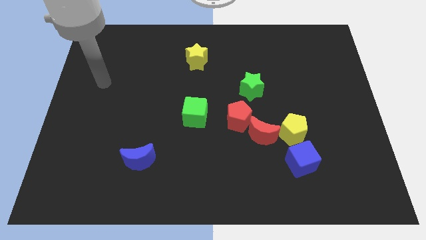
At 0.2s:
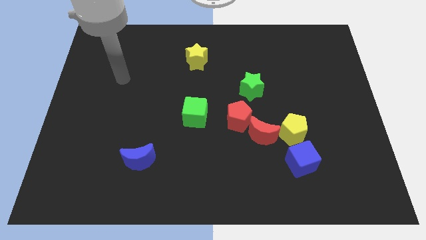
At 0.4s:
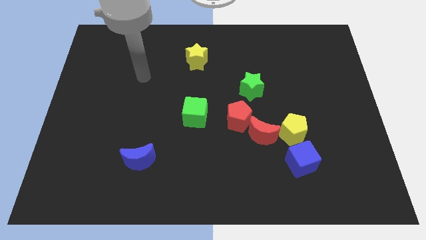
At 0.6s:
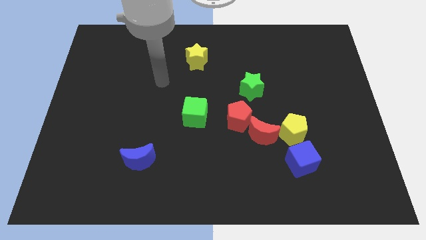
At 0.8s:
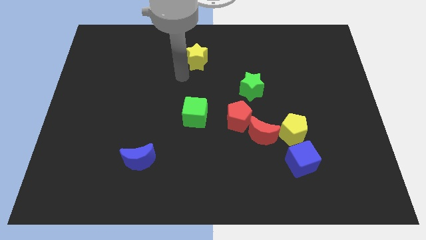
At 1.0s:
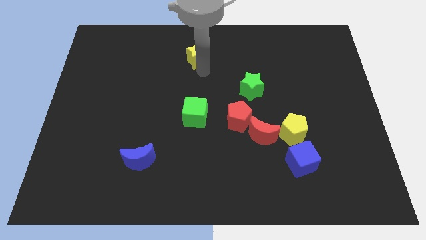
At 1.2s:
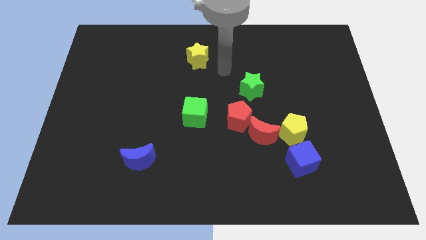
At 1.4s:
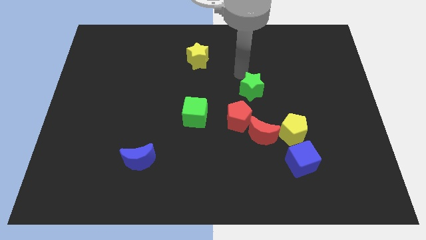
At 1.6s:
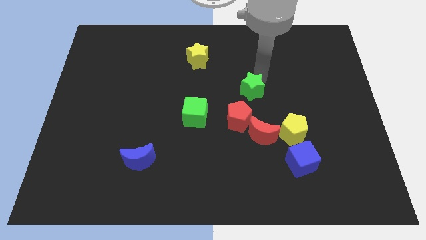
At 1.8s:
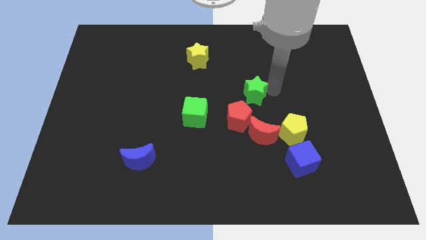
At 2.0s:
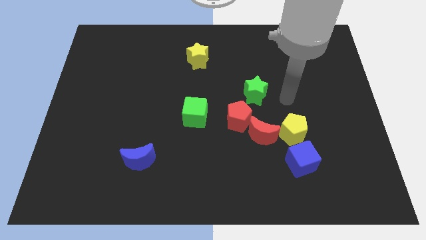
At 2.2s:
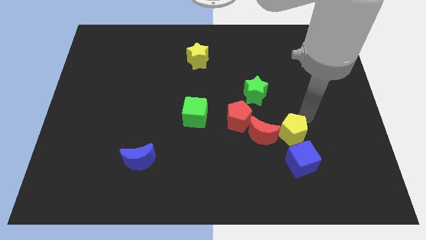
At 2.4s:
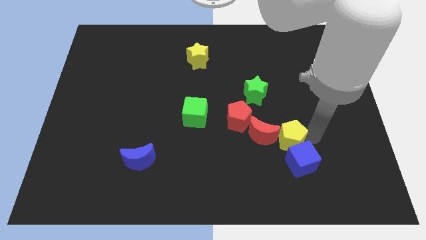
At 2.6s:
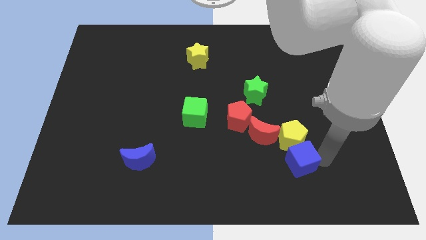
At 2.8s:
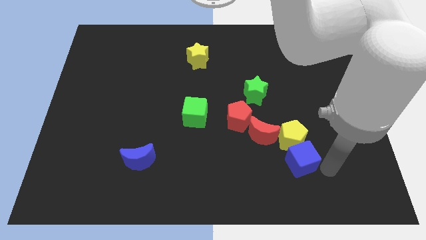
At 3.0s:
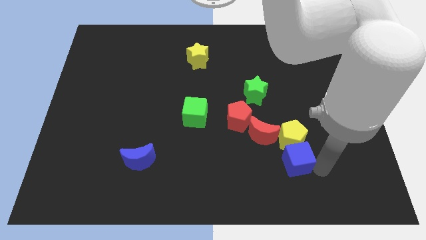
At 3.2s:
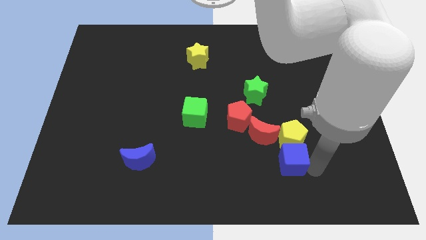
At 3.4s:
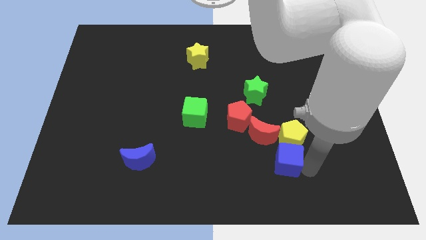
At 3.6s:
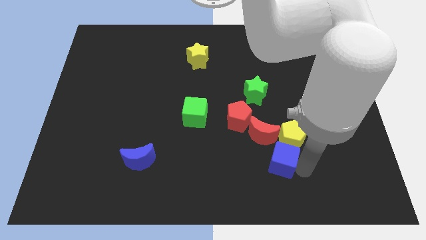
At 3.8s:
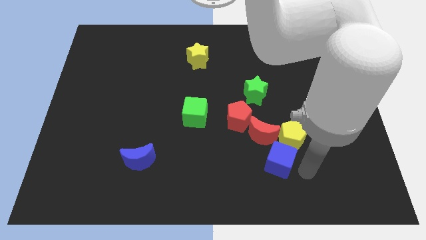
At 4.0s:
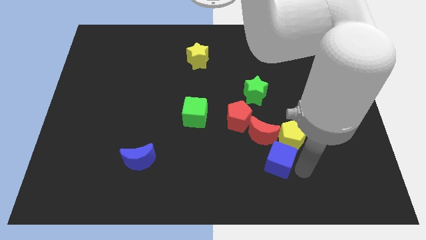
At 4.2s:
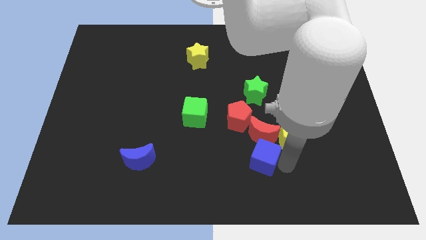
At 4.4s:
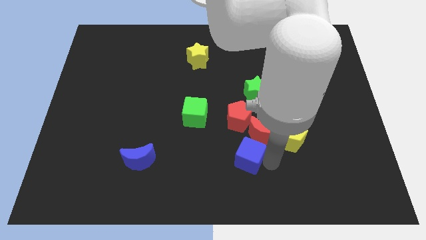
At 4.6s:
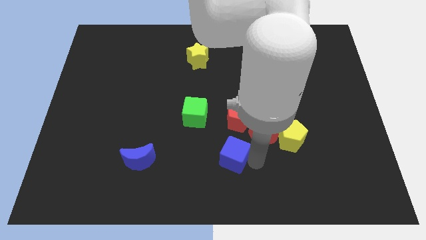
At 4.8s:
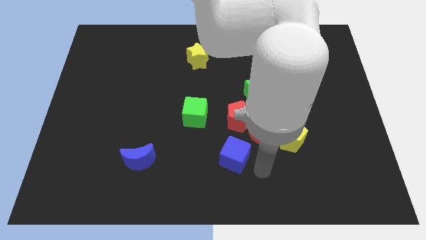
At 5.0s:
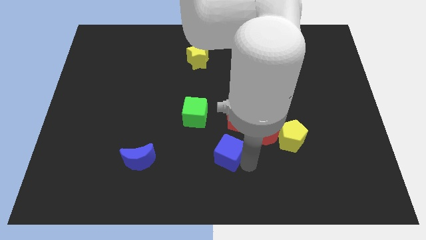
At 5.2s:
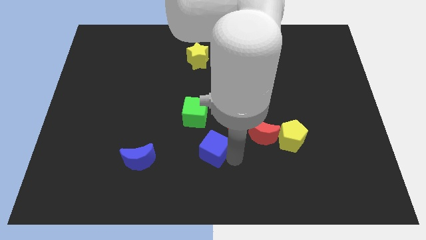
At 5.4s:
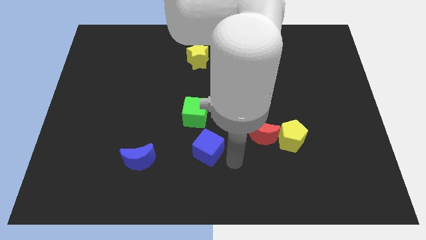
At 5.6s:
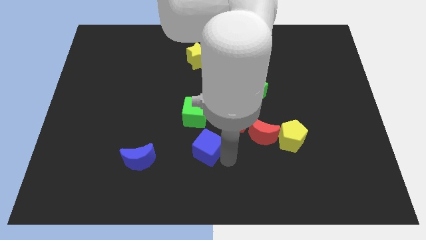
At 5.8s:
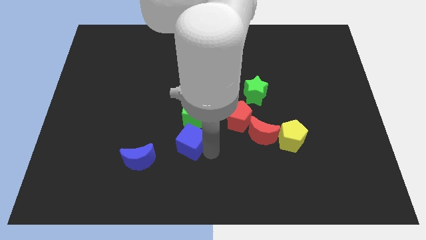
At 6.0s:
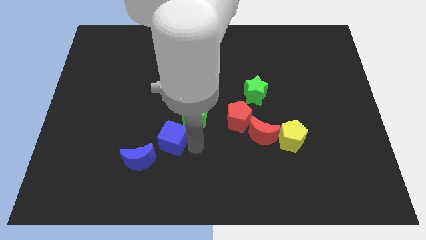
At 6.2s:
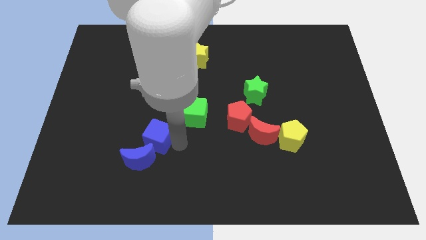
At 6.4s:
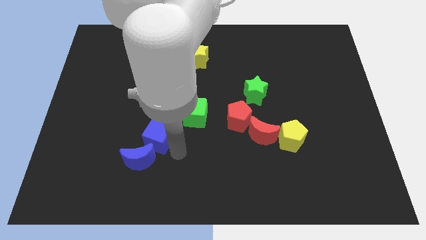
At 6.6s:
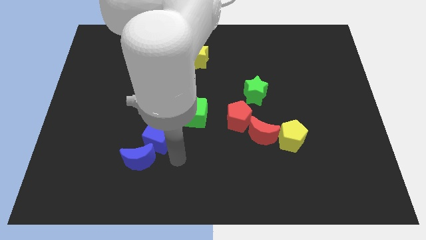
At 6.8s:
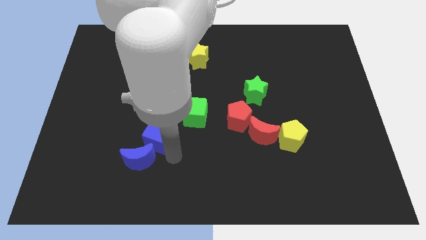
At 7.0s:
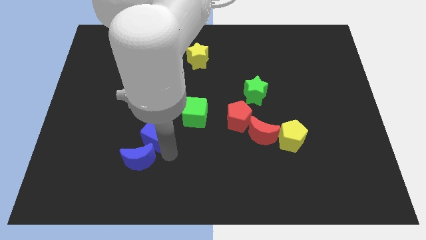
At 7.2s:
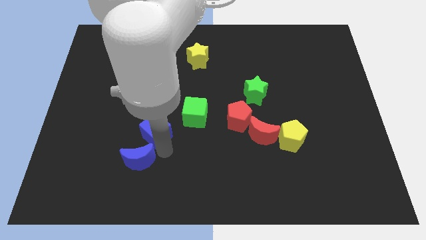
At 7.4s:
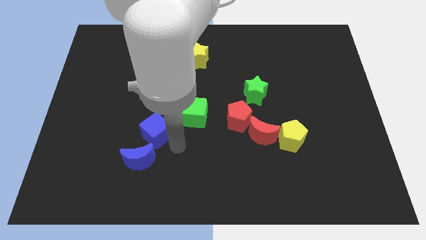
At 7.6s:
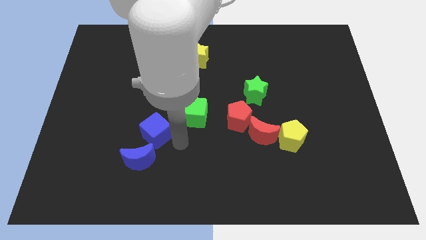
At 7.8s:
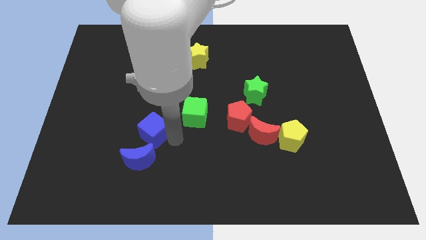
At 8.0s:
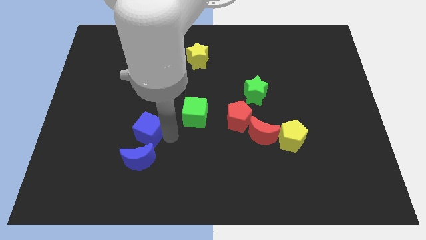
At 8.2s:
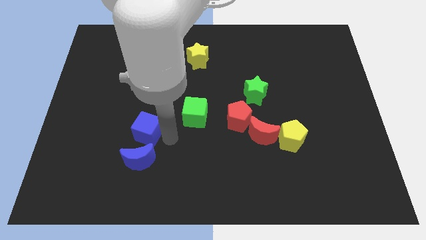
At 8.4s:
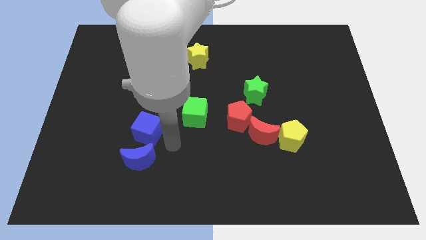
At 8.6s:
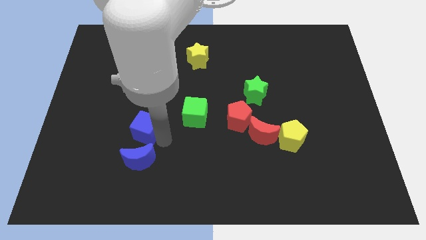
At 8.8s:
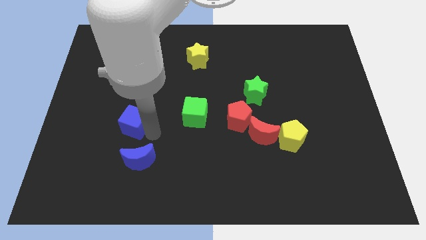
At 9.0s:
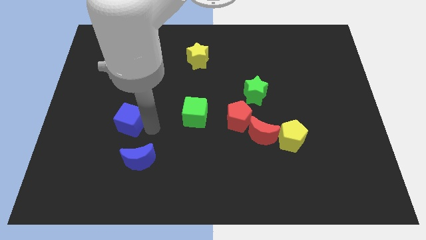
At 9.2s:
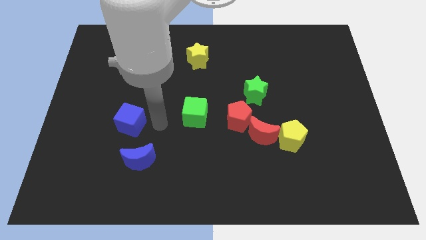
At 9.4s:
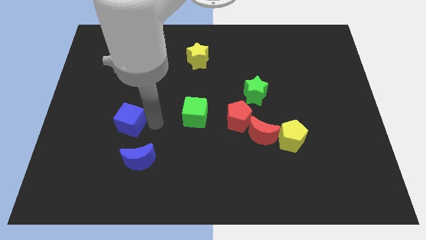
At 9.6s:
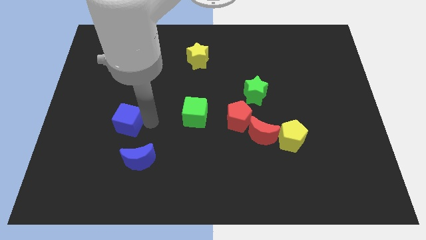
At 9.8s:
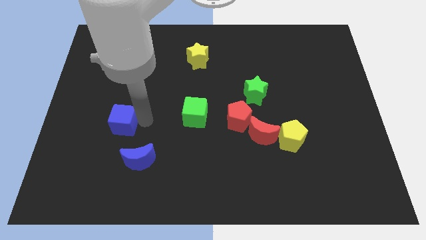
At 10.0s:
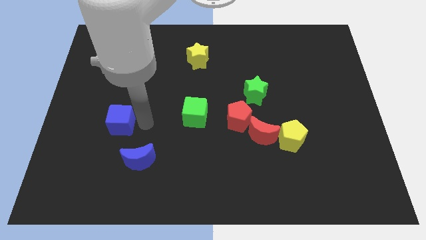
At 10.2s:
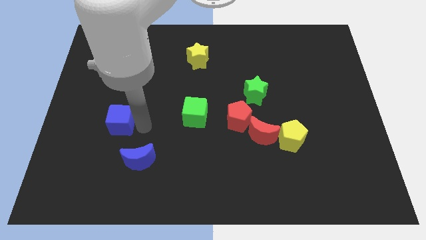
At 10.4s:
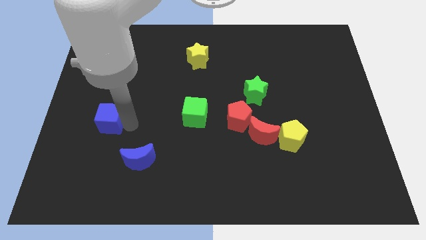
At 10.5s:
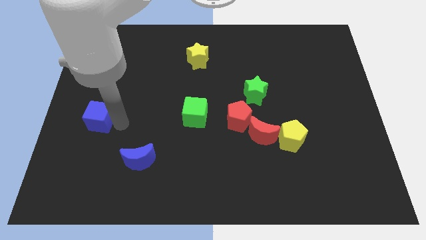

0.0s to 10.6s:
slide the blue cube to the center left

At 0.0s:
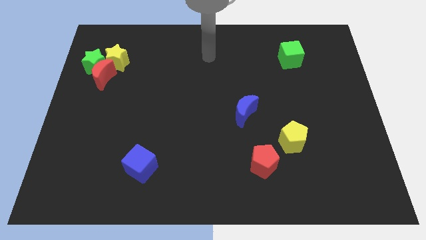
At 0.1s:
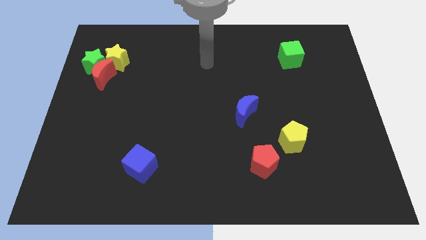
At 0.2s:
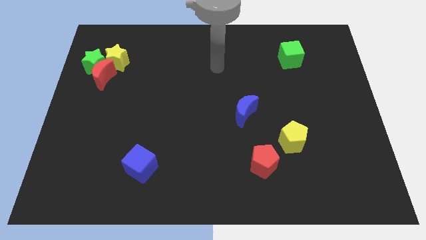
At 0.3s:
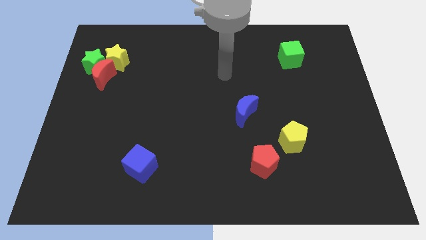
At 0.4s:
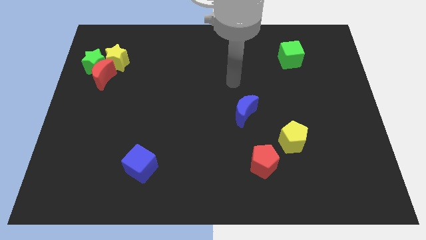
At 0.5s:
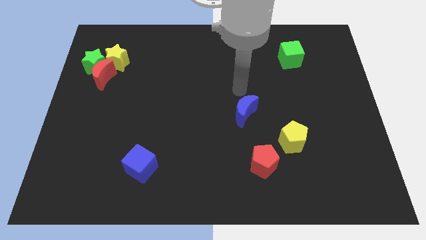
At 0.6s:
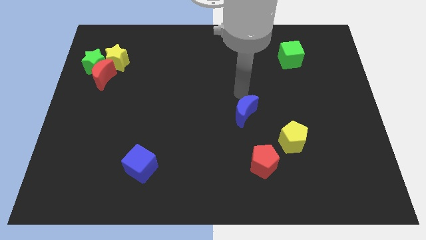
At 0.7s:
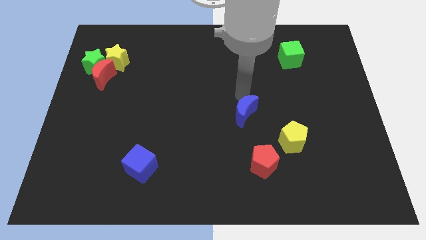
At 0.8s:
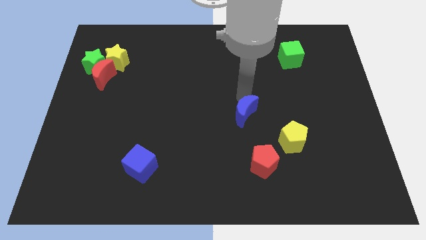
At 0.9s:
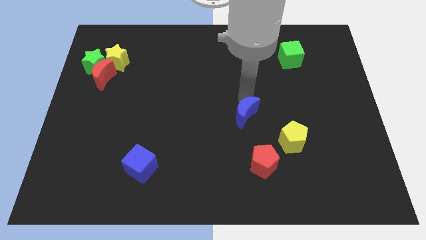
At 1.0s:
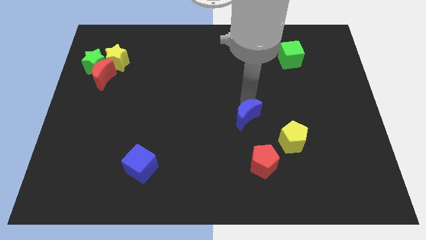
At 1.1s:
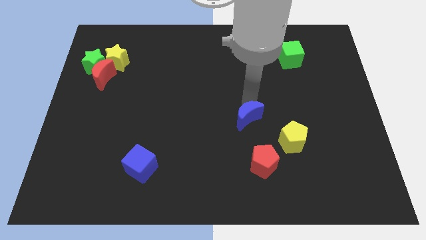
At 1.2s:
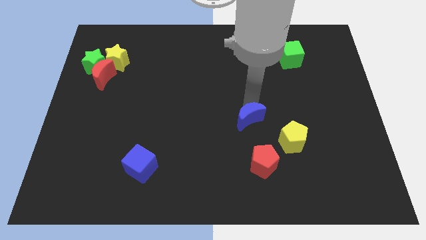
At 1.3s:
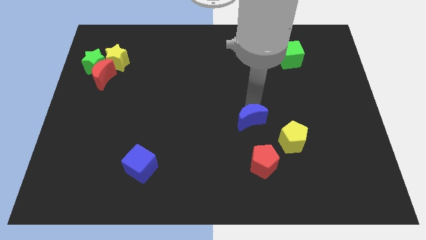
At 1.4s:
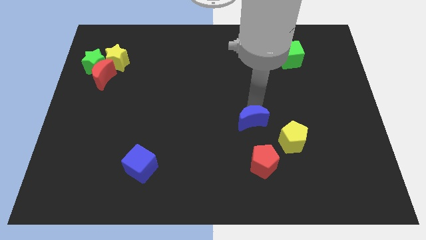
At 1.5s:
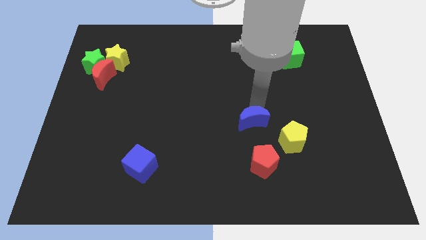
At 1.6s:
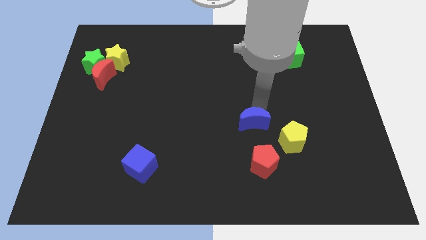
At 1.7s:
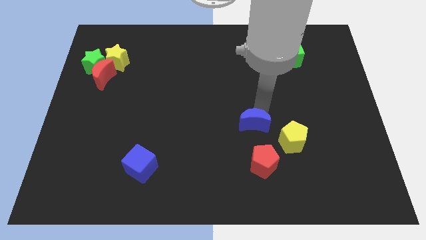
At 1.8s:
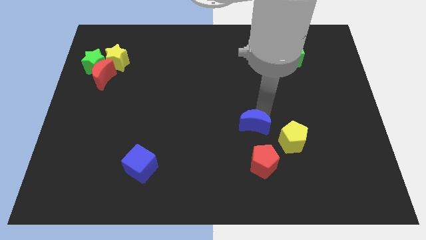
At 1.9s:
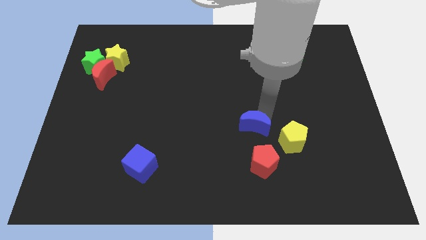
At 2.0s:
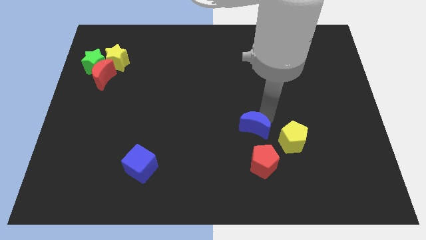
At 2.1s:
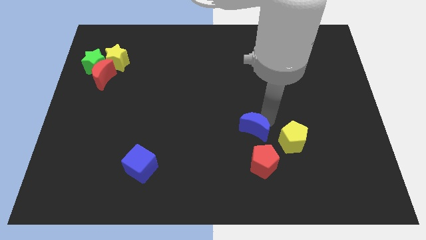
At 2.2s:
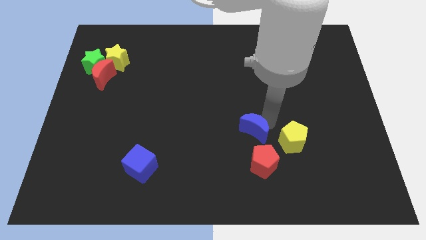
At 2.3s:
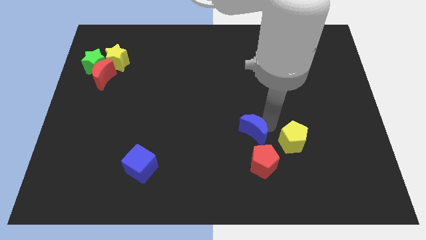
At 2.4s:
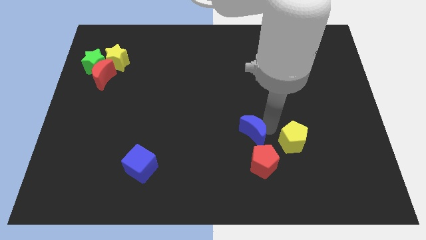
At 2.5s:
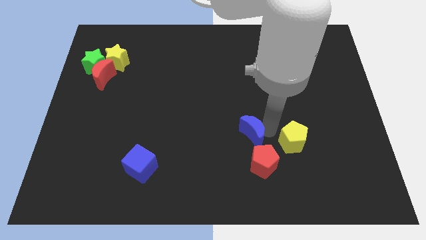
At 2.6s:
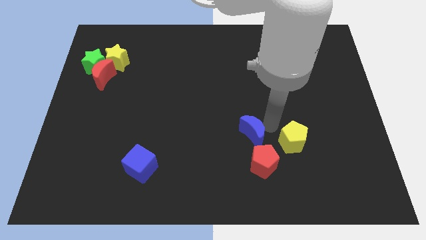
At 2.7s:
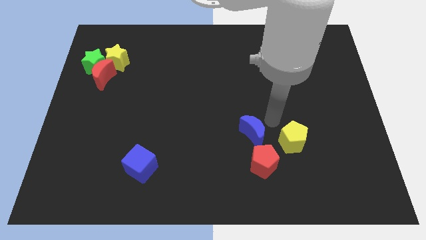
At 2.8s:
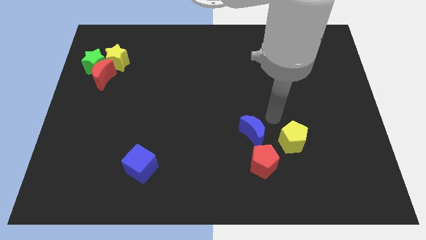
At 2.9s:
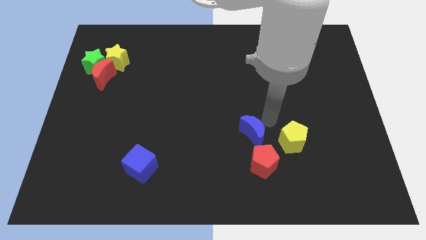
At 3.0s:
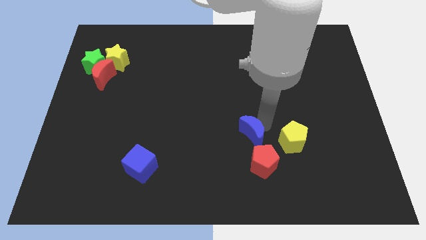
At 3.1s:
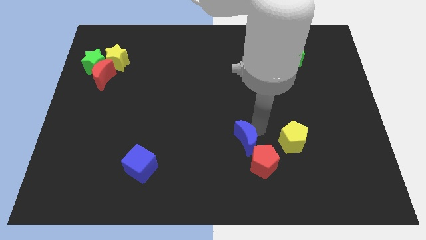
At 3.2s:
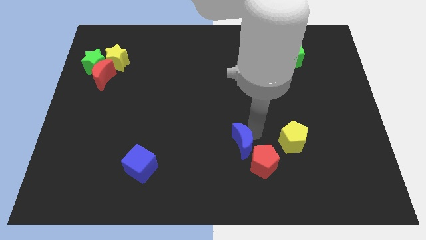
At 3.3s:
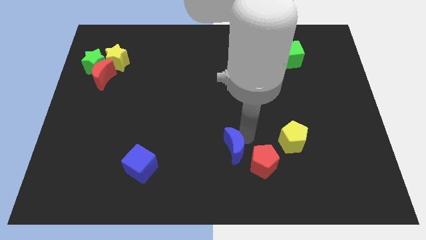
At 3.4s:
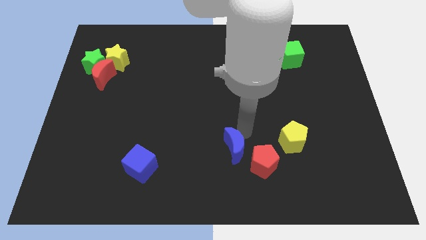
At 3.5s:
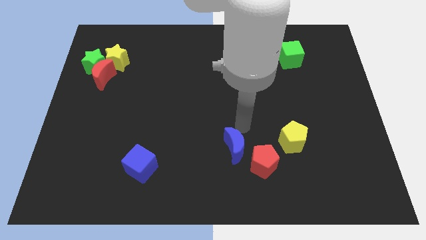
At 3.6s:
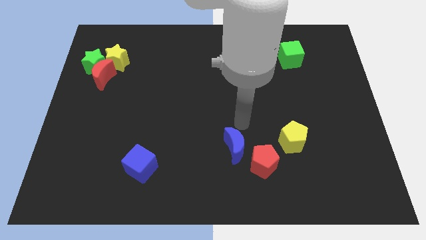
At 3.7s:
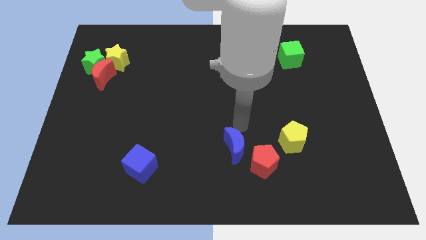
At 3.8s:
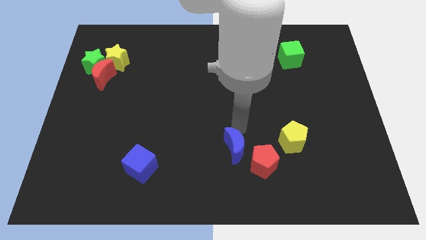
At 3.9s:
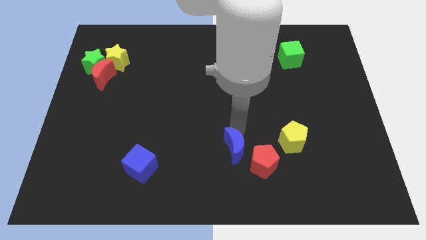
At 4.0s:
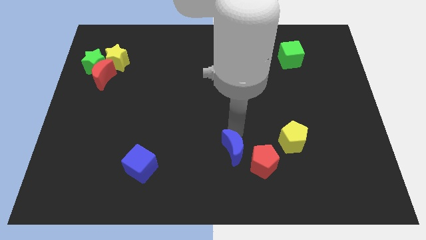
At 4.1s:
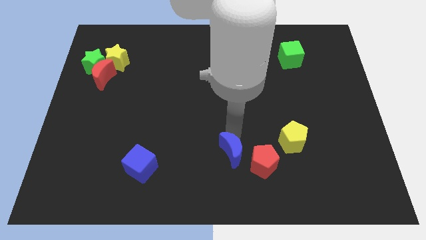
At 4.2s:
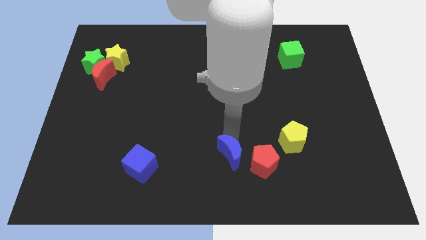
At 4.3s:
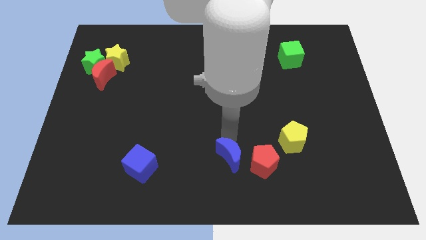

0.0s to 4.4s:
slide the blue moon to the bottom side
